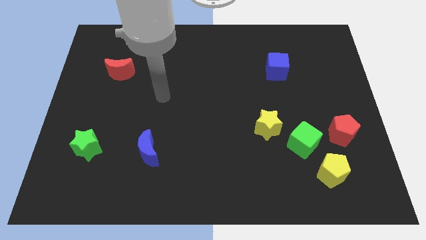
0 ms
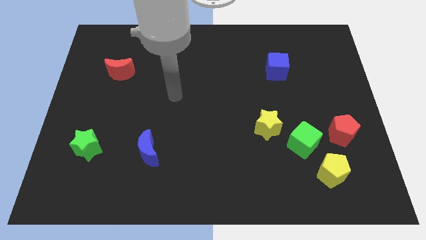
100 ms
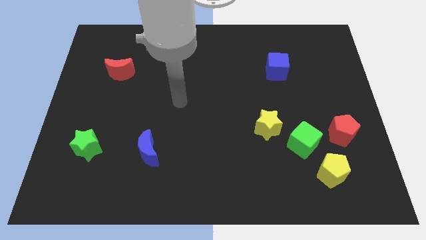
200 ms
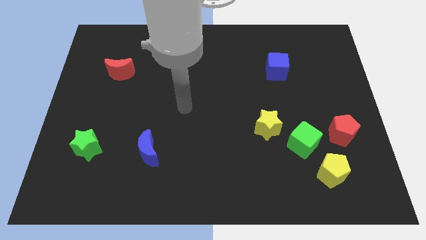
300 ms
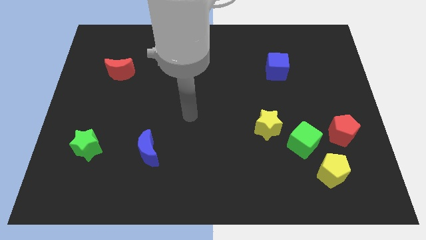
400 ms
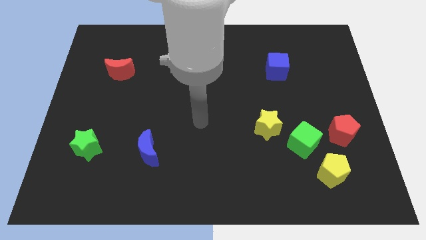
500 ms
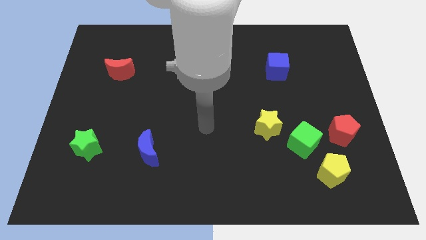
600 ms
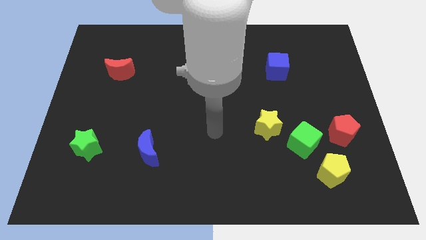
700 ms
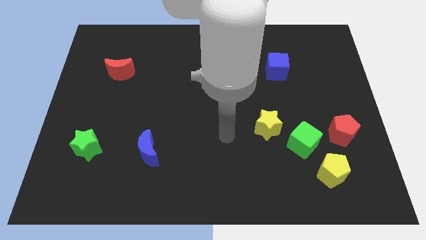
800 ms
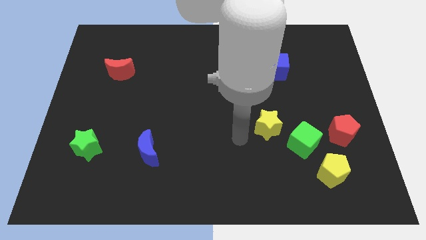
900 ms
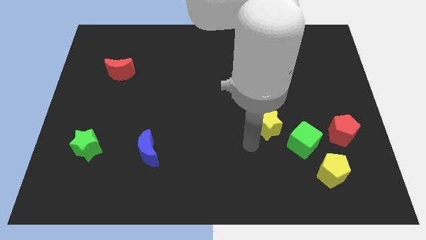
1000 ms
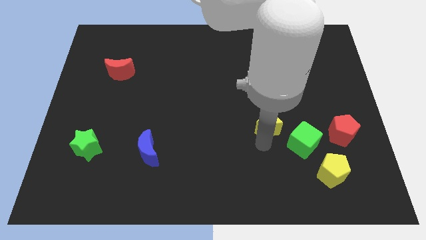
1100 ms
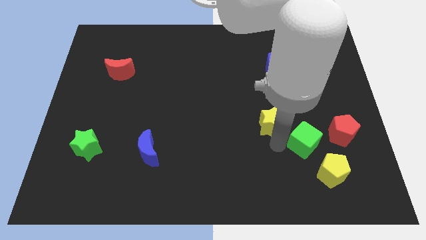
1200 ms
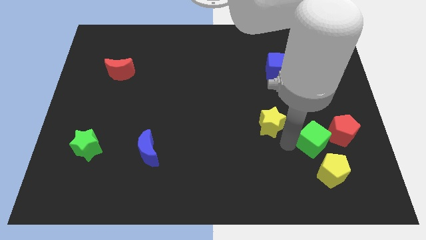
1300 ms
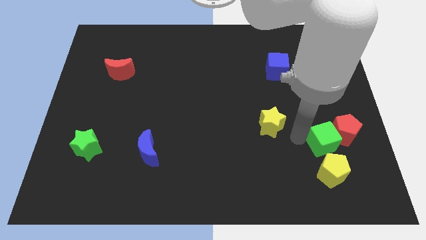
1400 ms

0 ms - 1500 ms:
separate the yellow star from the green cube

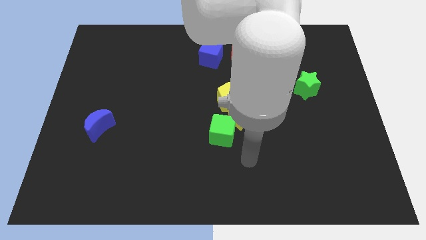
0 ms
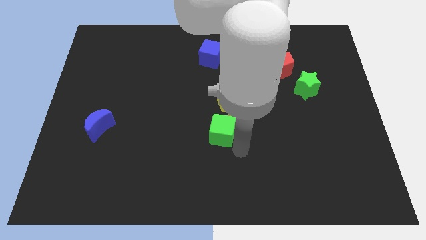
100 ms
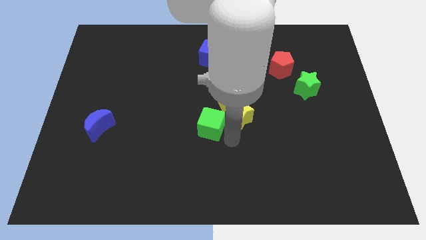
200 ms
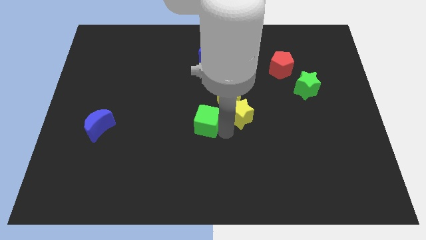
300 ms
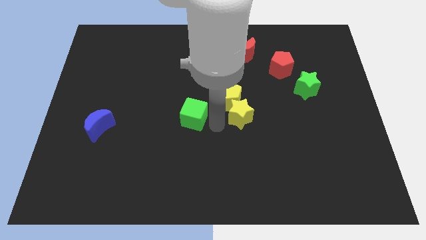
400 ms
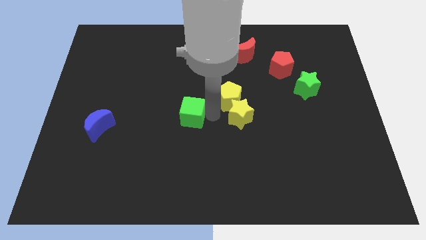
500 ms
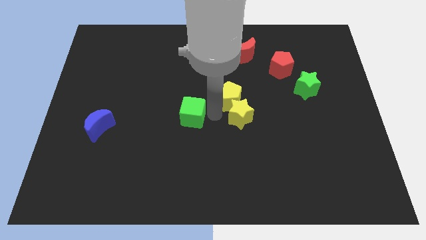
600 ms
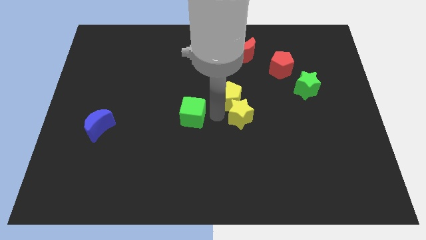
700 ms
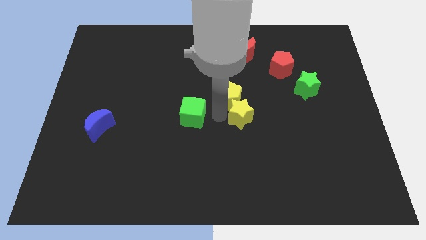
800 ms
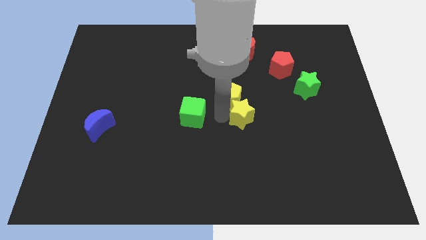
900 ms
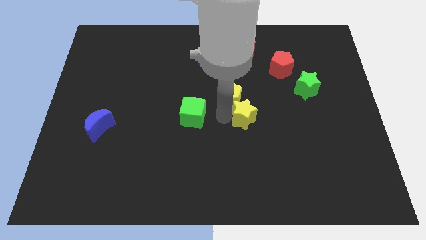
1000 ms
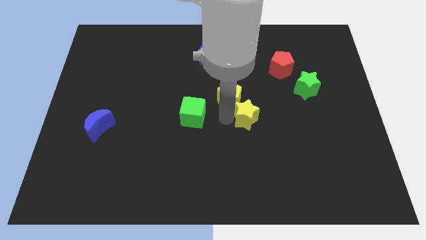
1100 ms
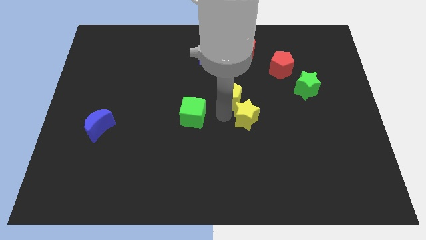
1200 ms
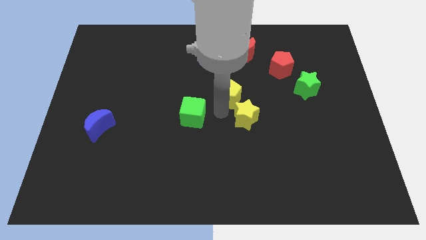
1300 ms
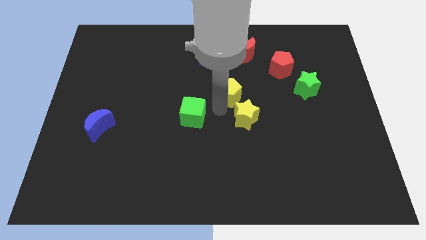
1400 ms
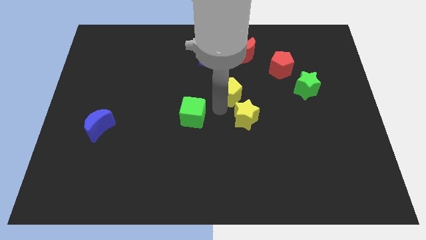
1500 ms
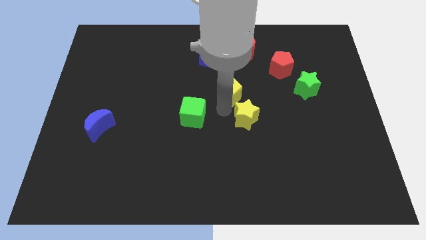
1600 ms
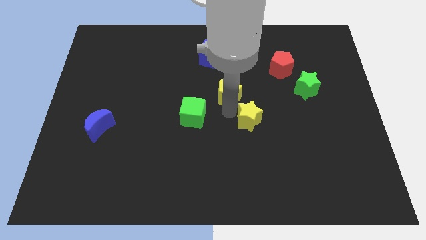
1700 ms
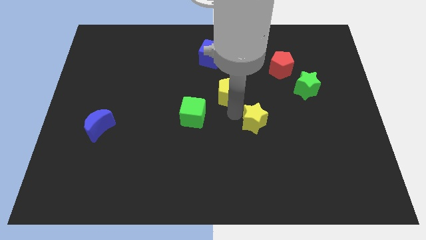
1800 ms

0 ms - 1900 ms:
pull the yellow star apart from the yellow pentagon and green cube

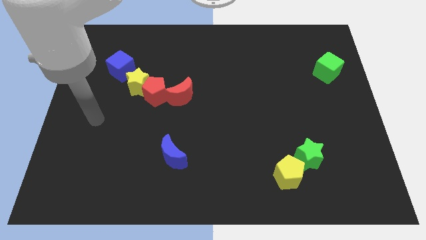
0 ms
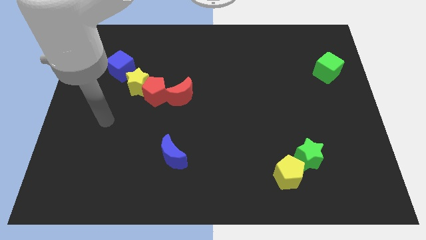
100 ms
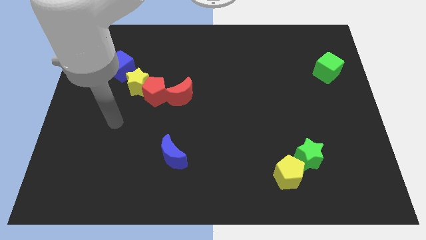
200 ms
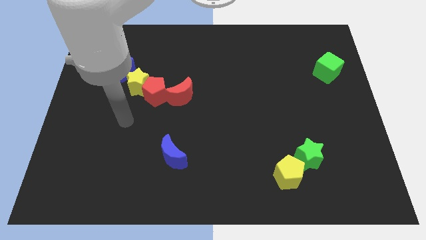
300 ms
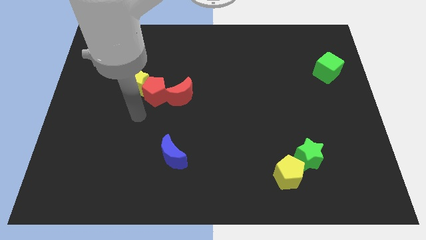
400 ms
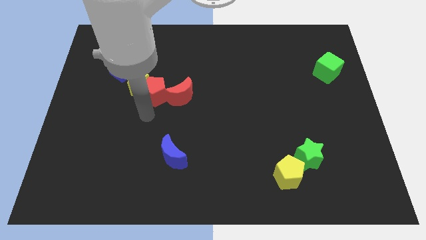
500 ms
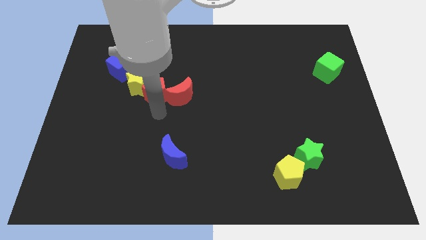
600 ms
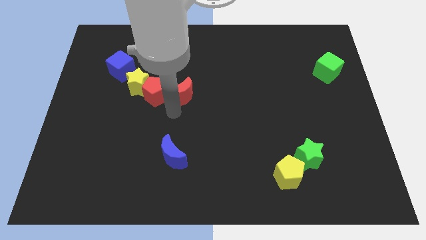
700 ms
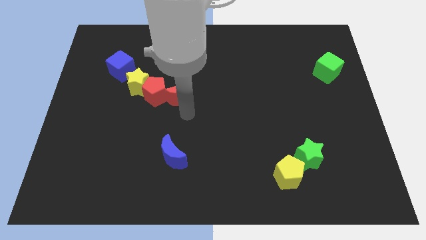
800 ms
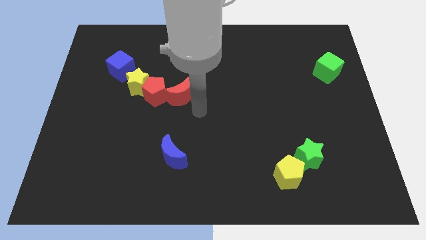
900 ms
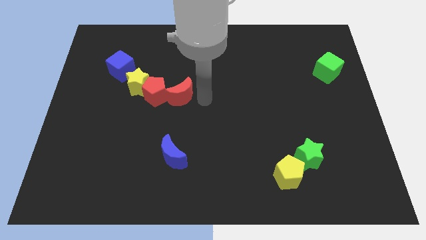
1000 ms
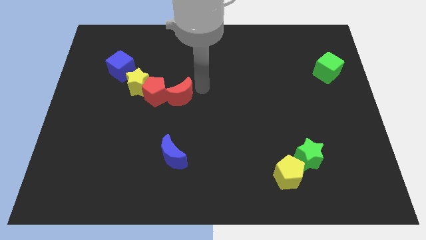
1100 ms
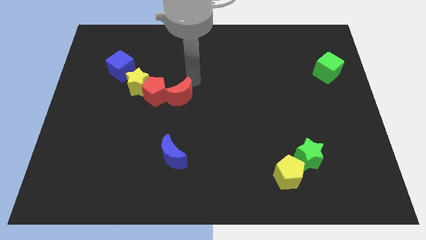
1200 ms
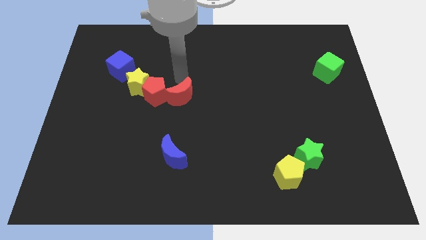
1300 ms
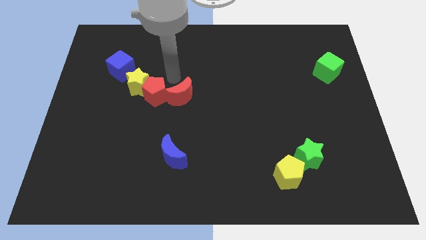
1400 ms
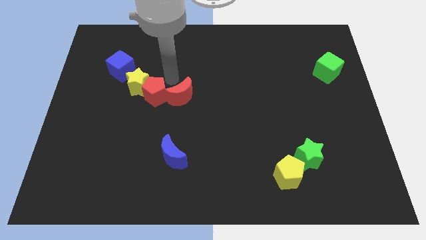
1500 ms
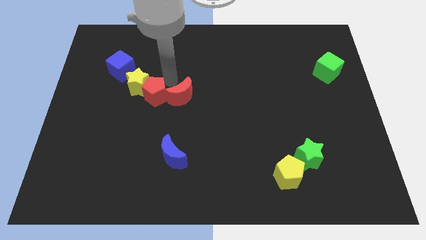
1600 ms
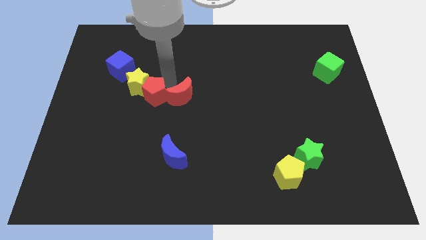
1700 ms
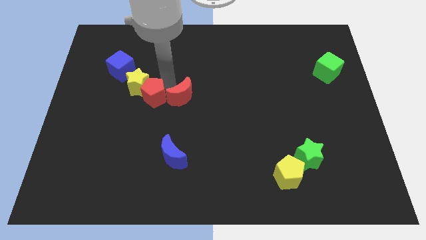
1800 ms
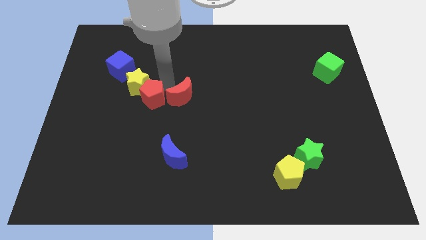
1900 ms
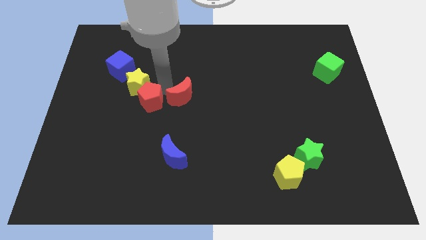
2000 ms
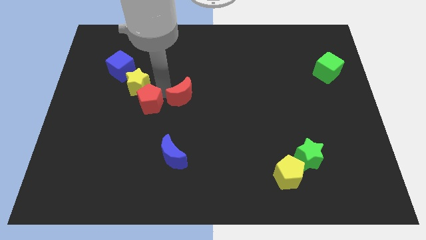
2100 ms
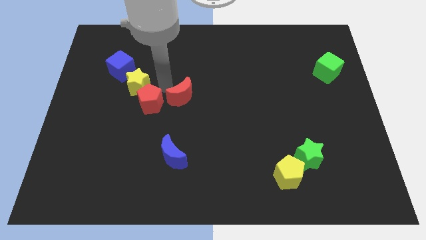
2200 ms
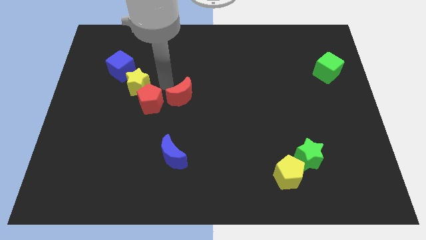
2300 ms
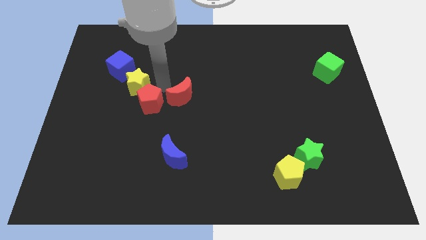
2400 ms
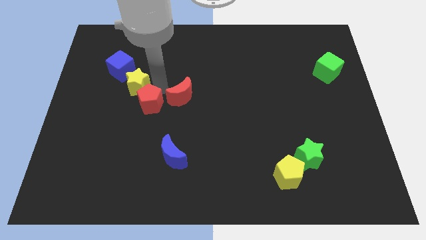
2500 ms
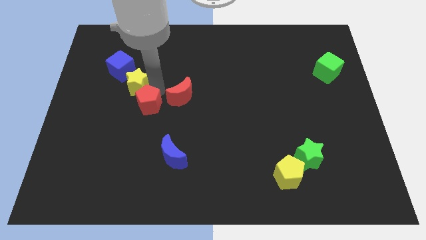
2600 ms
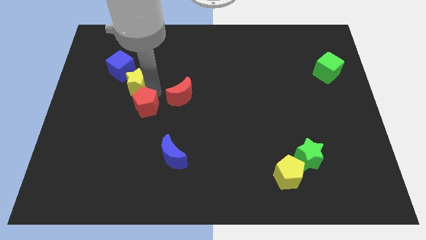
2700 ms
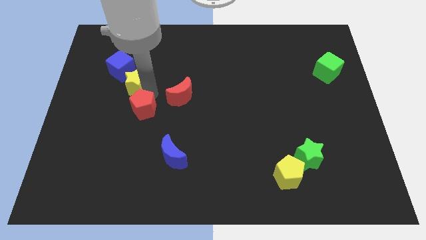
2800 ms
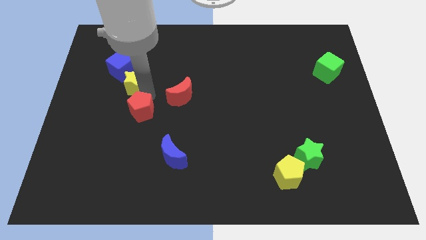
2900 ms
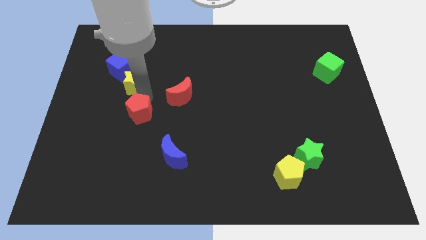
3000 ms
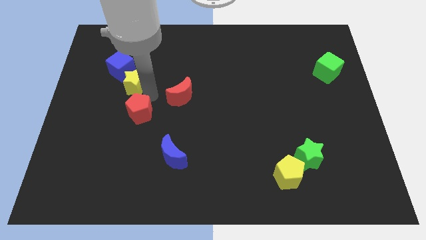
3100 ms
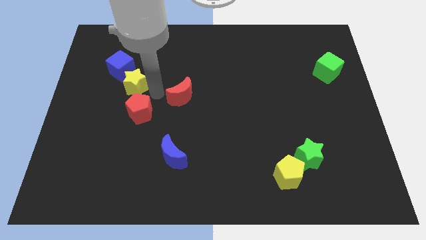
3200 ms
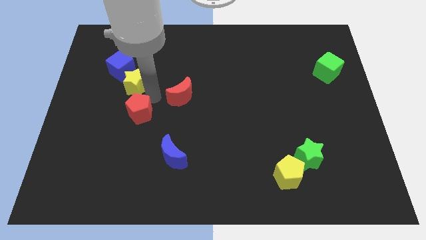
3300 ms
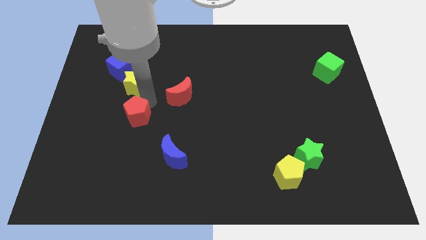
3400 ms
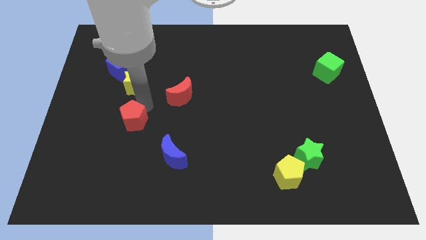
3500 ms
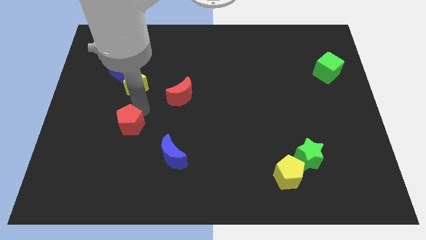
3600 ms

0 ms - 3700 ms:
pull the red pentagon apart from the yellow star and red moon

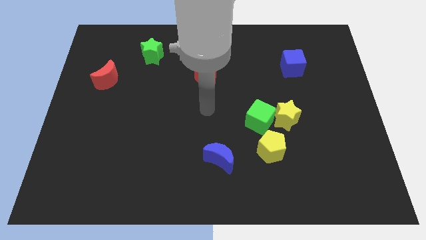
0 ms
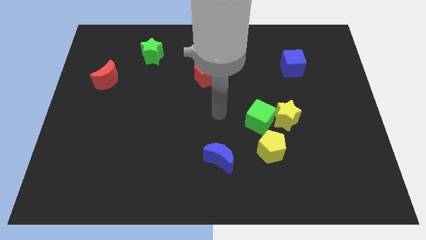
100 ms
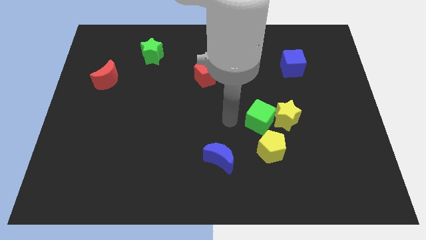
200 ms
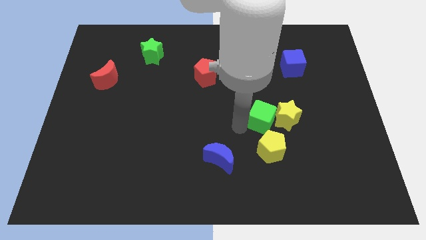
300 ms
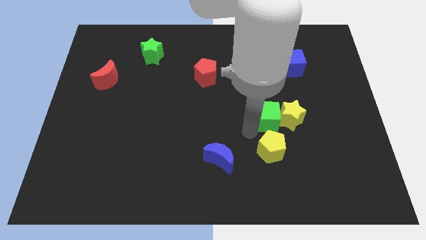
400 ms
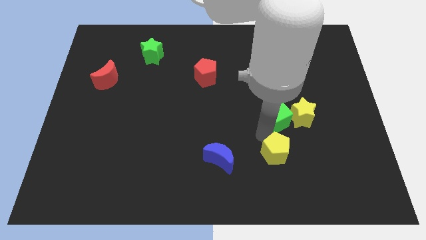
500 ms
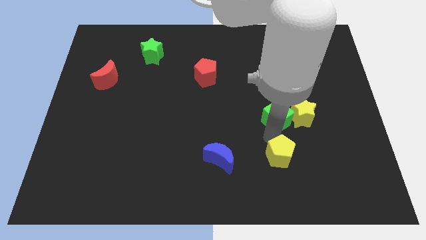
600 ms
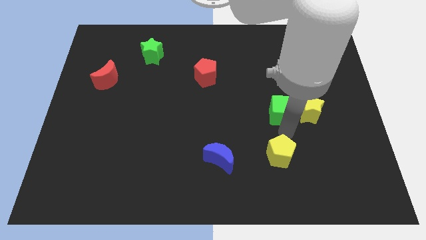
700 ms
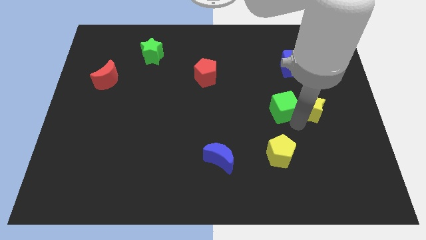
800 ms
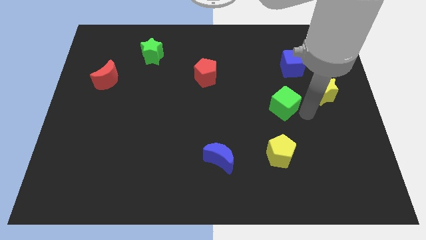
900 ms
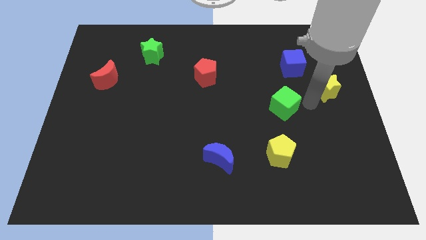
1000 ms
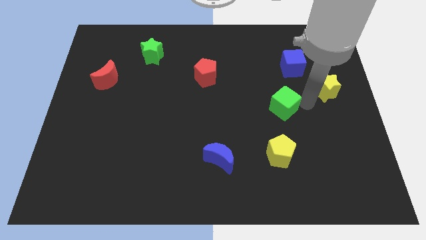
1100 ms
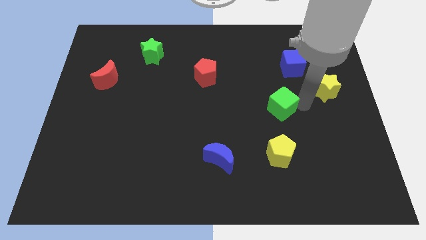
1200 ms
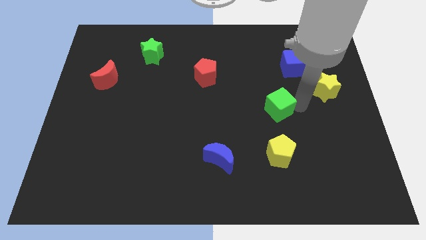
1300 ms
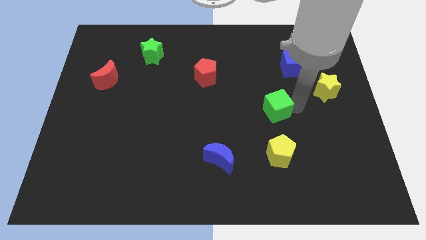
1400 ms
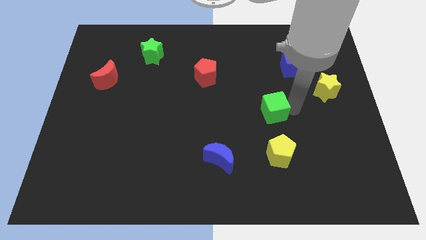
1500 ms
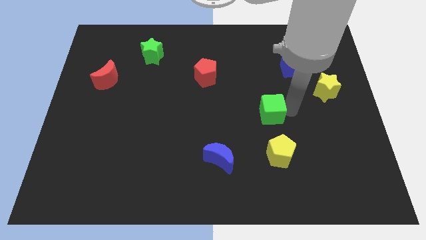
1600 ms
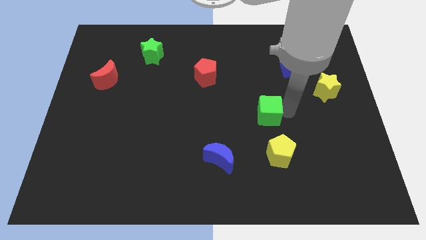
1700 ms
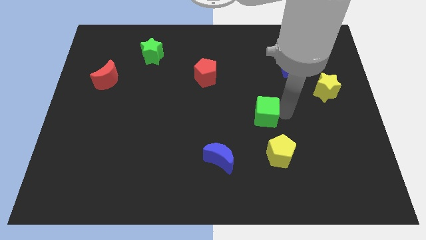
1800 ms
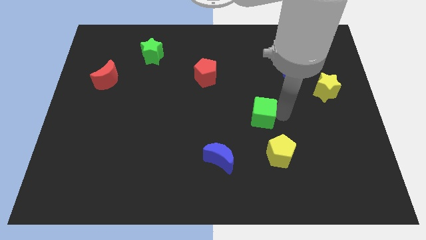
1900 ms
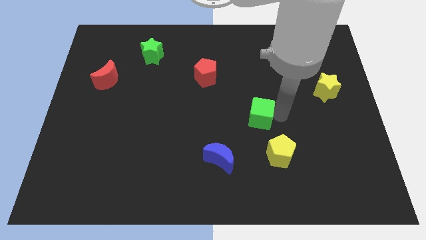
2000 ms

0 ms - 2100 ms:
move the green cube away from the yellow star and yellow pentagon

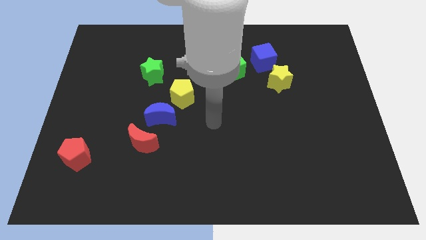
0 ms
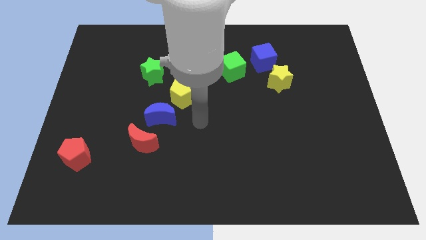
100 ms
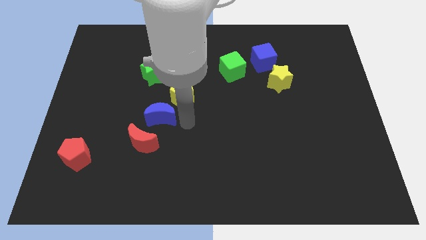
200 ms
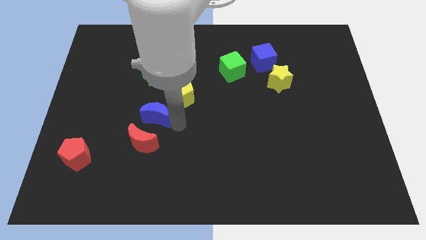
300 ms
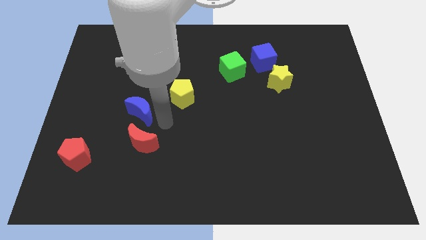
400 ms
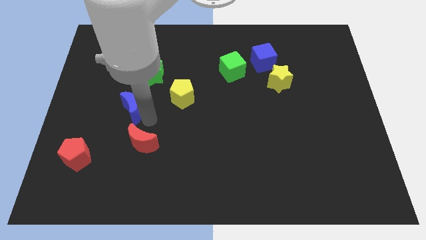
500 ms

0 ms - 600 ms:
move the red moon away from the blue moon
